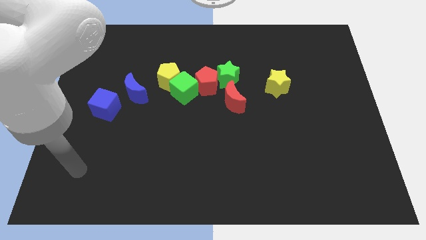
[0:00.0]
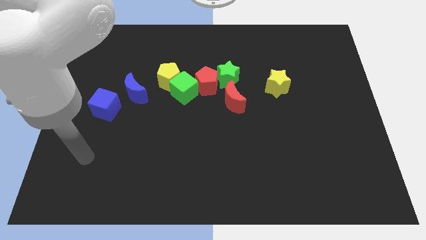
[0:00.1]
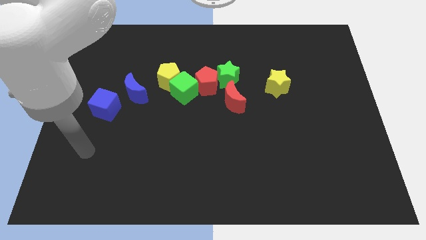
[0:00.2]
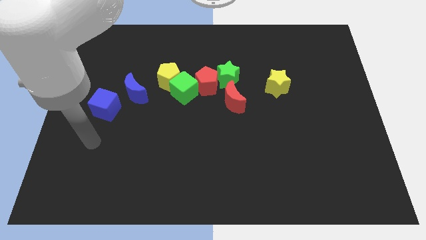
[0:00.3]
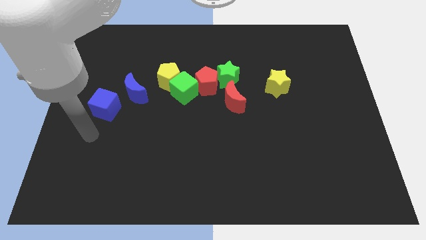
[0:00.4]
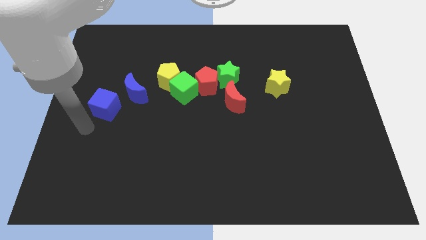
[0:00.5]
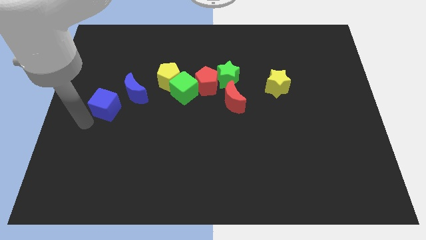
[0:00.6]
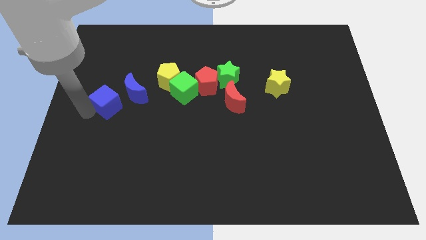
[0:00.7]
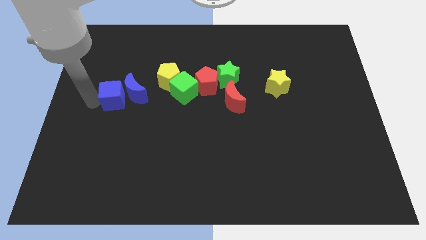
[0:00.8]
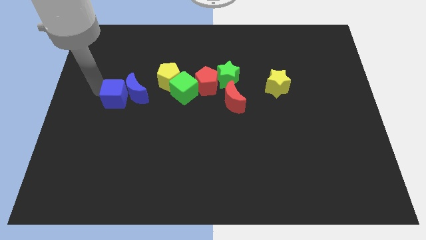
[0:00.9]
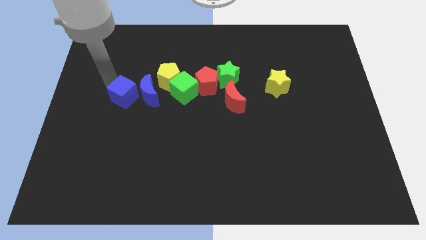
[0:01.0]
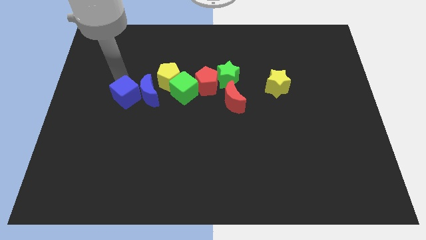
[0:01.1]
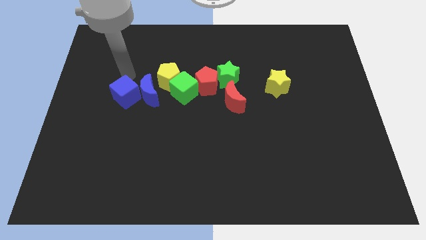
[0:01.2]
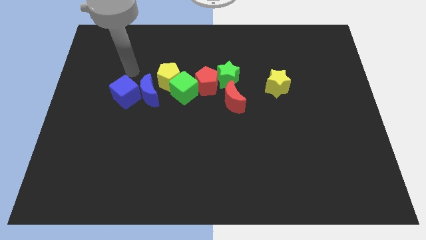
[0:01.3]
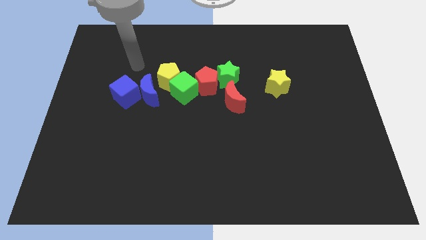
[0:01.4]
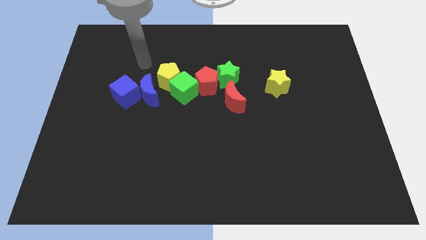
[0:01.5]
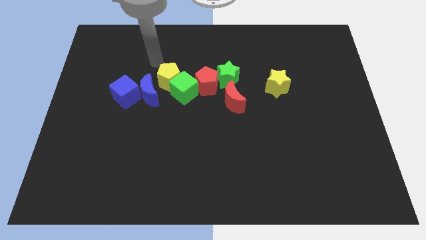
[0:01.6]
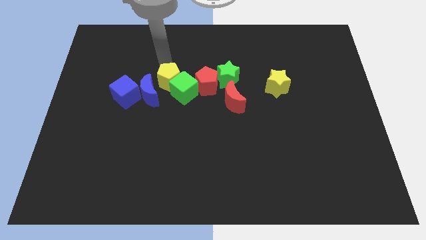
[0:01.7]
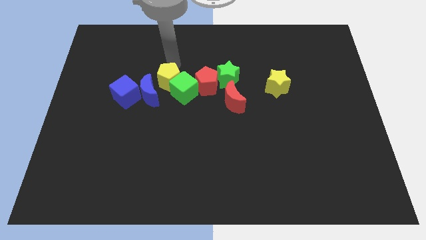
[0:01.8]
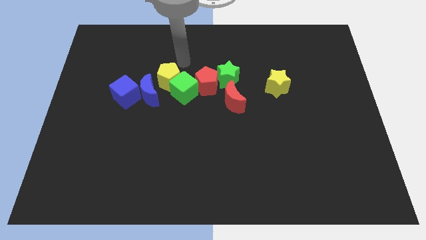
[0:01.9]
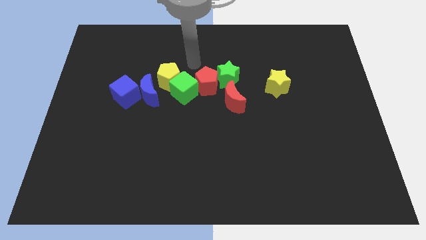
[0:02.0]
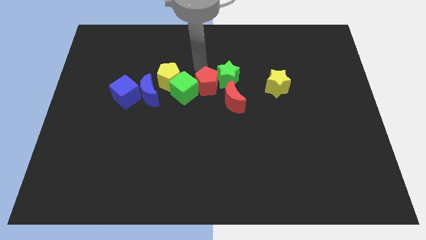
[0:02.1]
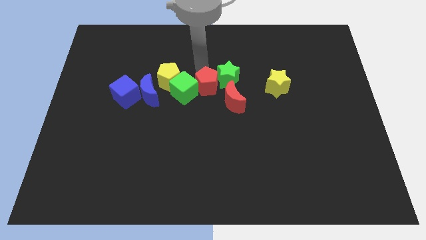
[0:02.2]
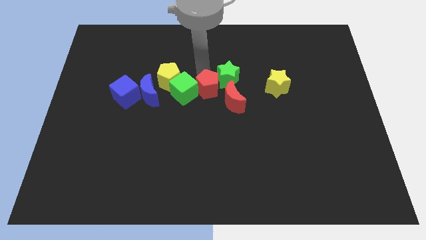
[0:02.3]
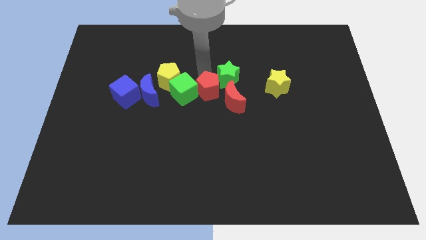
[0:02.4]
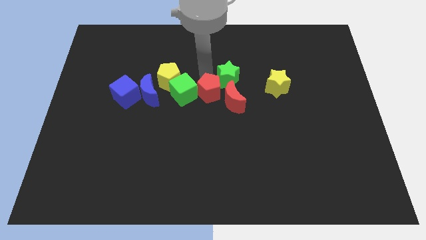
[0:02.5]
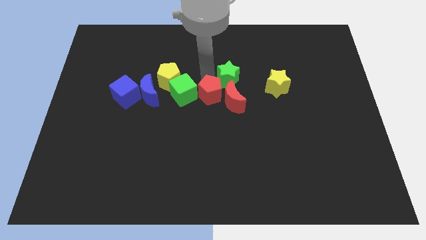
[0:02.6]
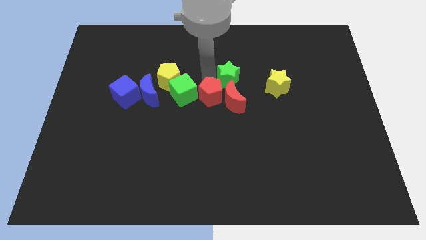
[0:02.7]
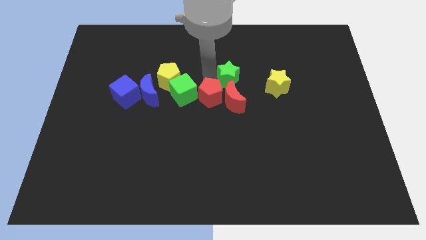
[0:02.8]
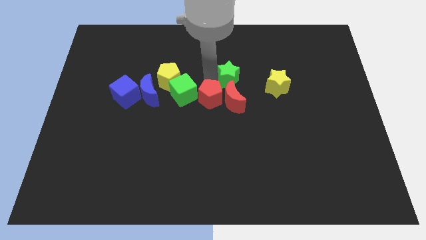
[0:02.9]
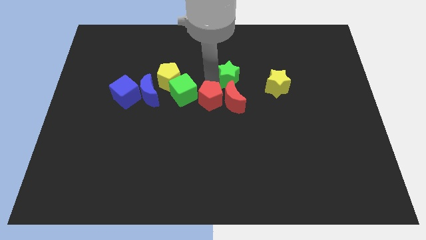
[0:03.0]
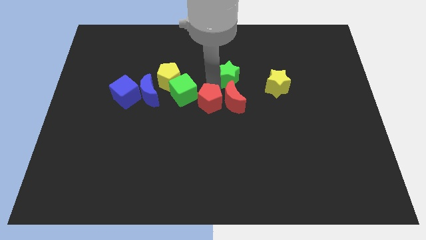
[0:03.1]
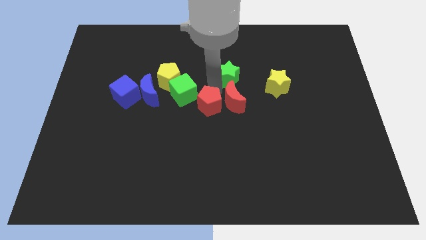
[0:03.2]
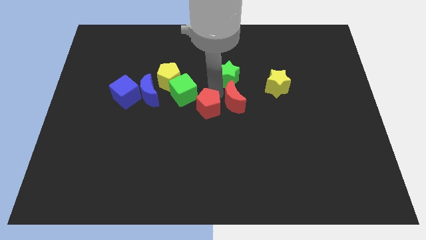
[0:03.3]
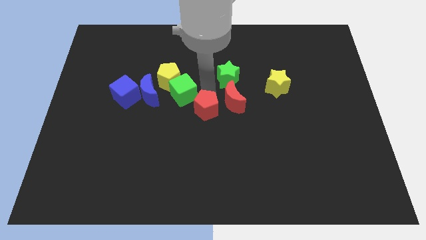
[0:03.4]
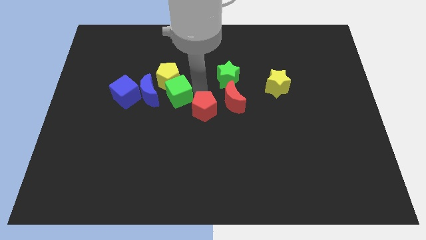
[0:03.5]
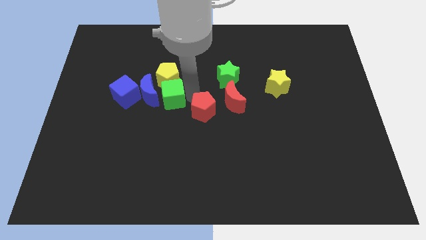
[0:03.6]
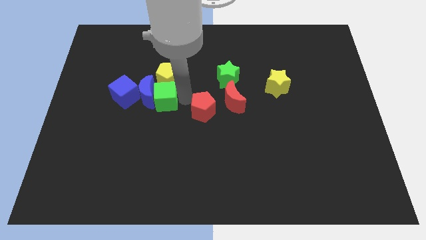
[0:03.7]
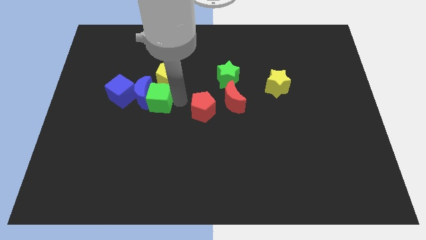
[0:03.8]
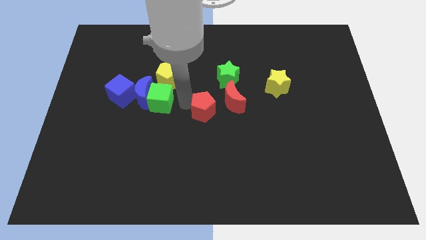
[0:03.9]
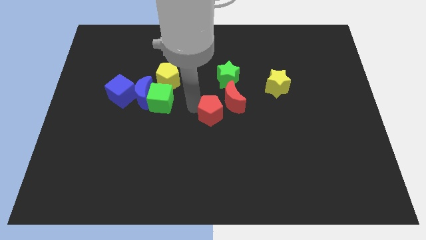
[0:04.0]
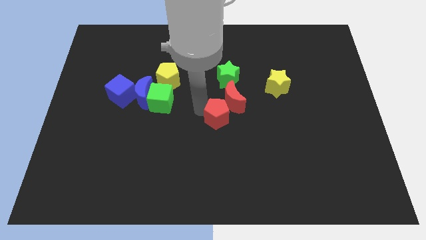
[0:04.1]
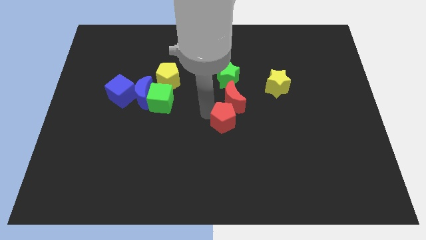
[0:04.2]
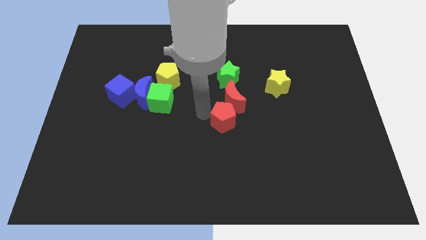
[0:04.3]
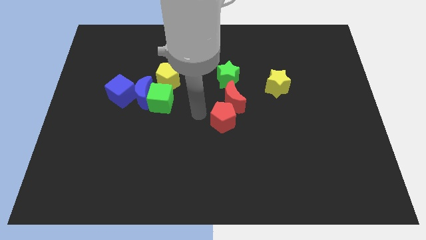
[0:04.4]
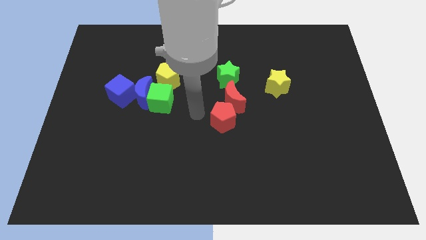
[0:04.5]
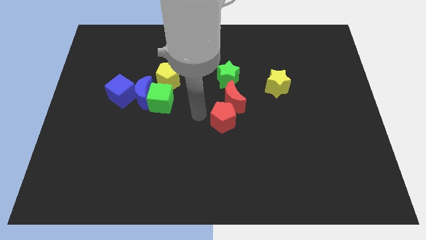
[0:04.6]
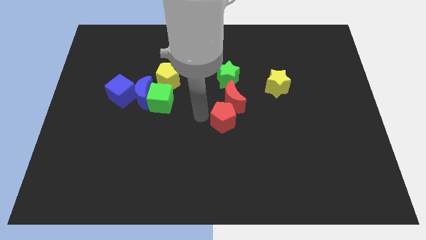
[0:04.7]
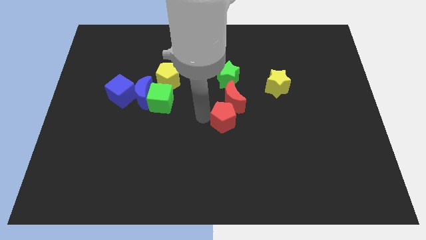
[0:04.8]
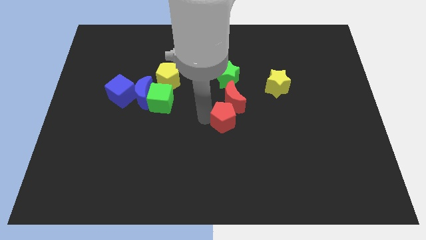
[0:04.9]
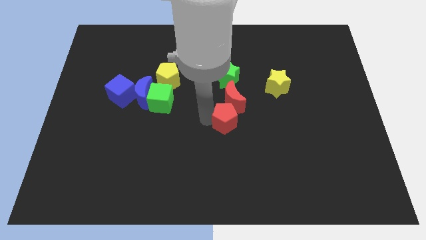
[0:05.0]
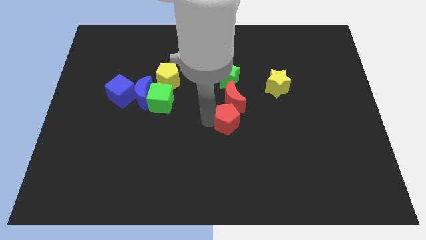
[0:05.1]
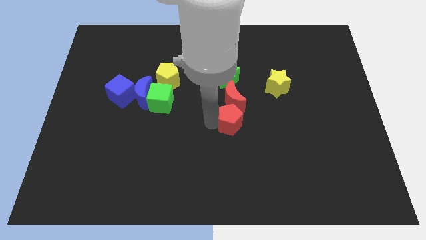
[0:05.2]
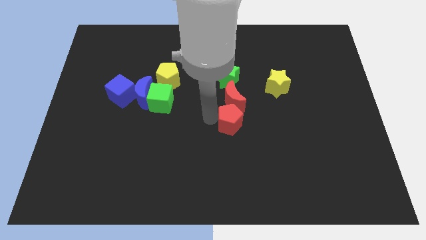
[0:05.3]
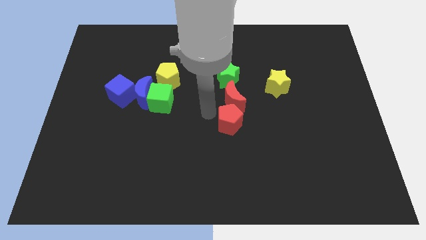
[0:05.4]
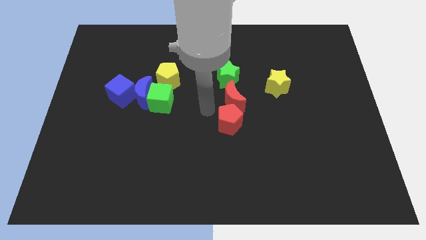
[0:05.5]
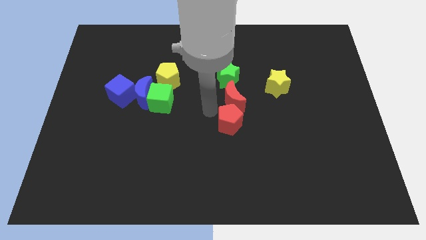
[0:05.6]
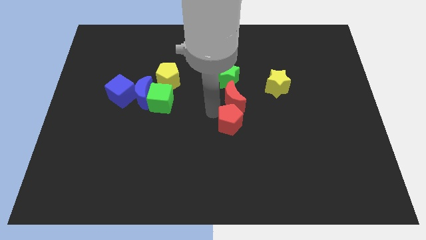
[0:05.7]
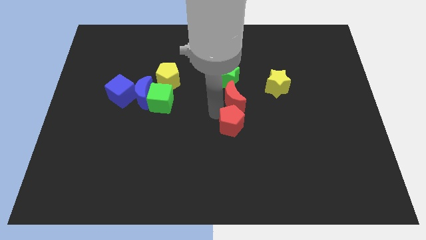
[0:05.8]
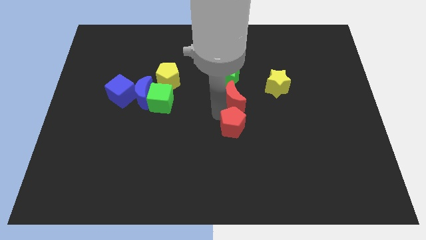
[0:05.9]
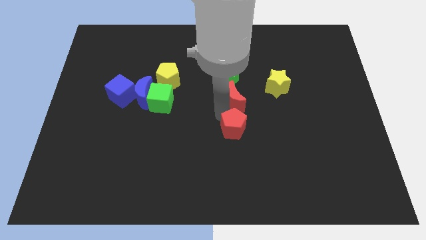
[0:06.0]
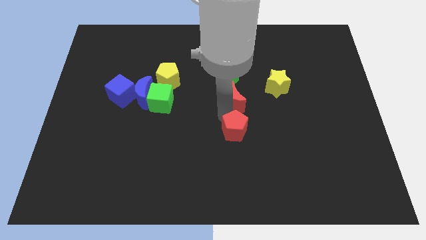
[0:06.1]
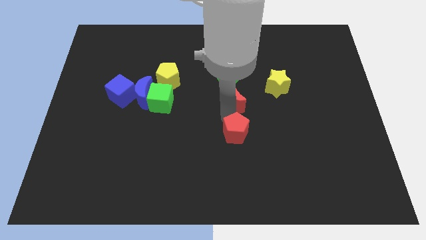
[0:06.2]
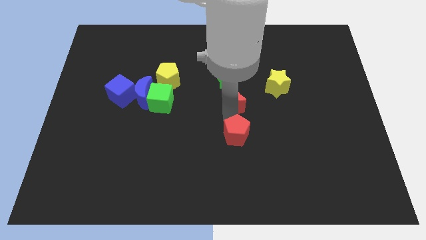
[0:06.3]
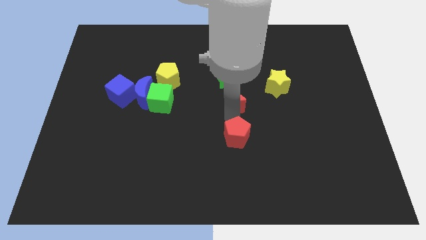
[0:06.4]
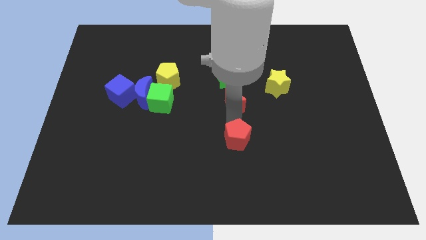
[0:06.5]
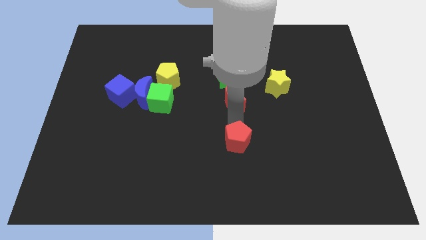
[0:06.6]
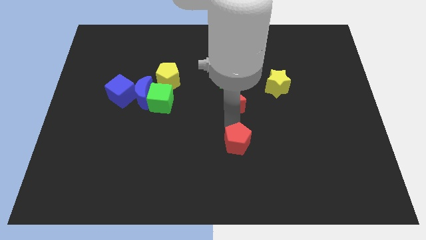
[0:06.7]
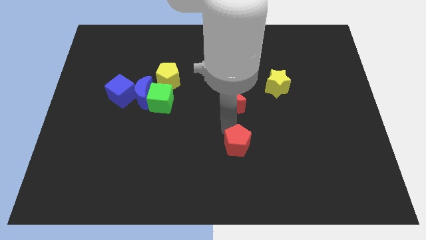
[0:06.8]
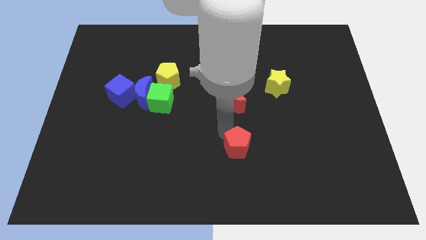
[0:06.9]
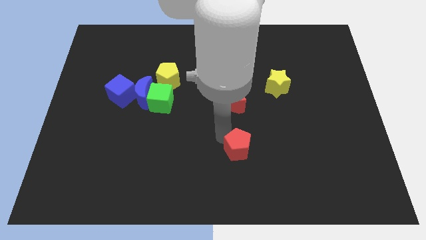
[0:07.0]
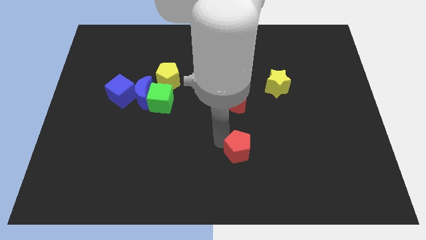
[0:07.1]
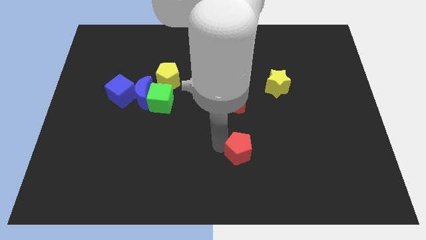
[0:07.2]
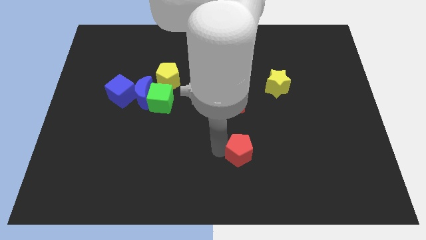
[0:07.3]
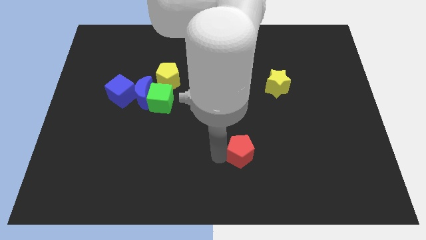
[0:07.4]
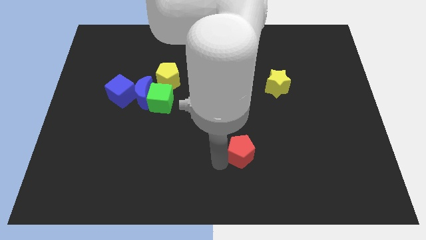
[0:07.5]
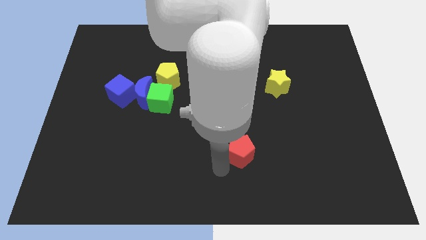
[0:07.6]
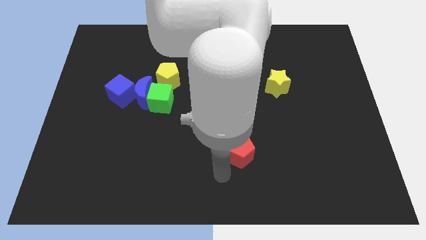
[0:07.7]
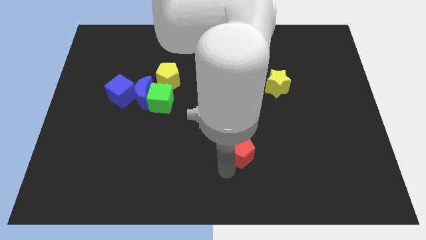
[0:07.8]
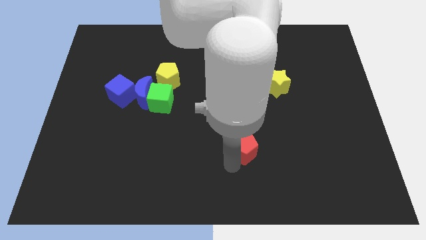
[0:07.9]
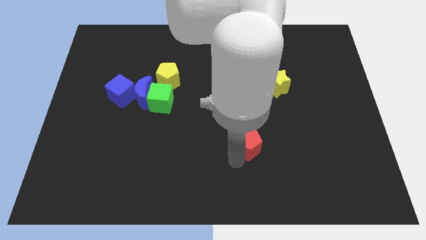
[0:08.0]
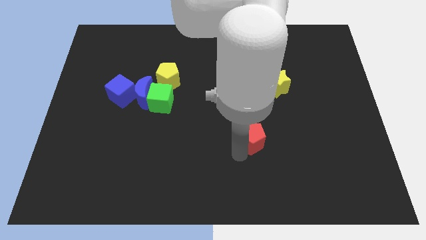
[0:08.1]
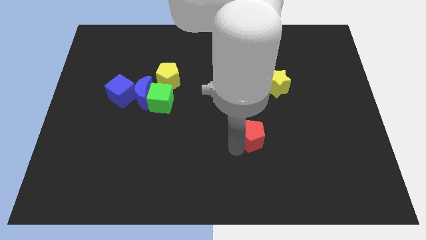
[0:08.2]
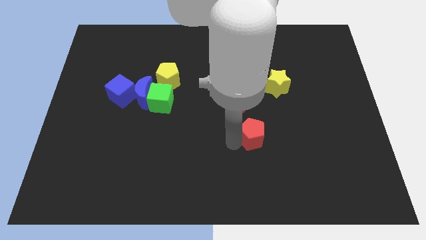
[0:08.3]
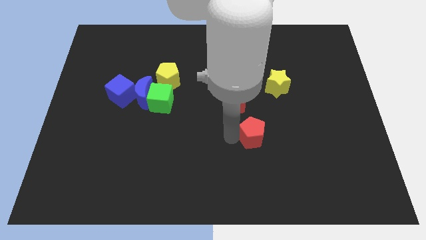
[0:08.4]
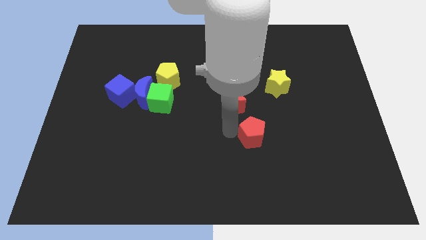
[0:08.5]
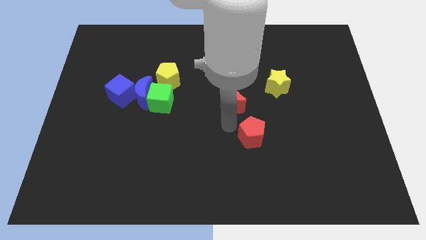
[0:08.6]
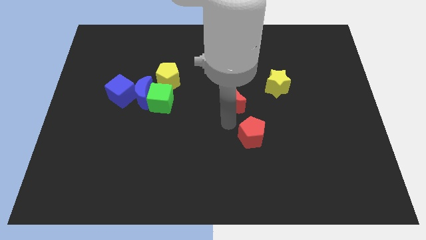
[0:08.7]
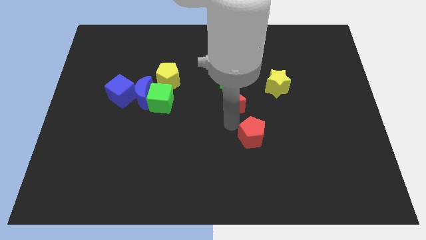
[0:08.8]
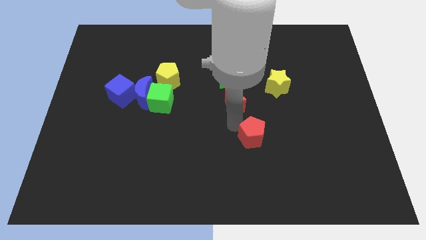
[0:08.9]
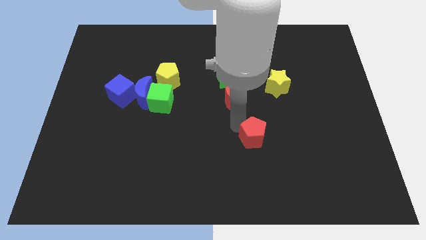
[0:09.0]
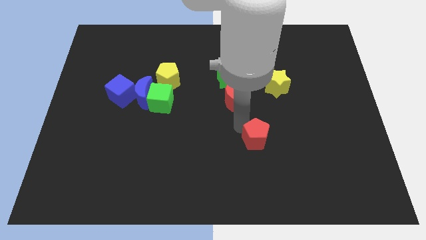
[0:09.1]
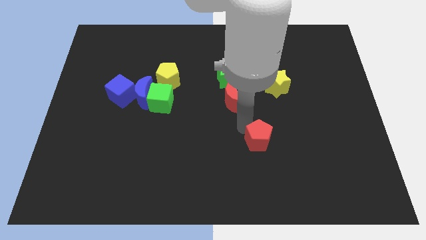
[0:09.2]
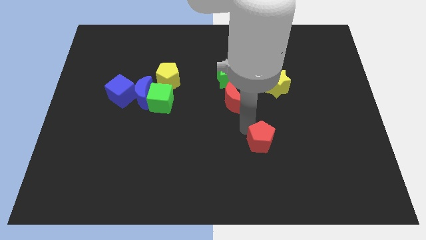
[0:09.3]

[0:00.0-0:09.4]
push the red pentagon downwards and to the right
